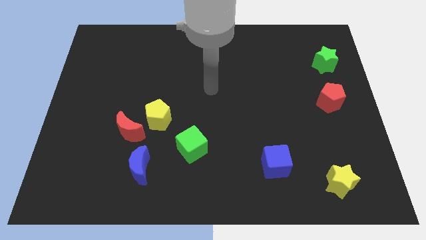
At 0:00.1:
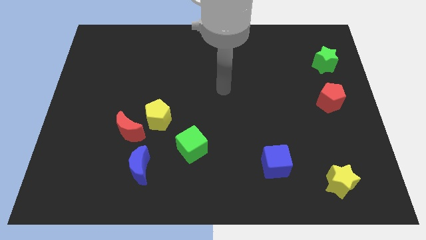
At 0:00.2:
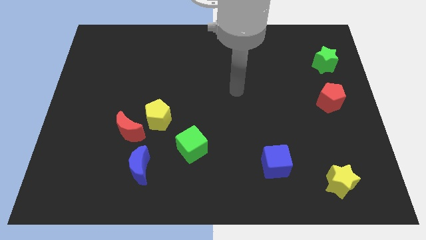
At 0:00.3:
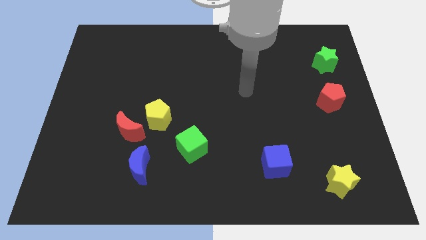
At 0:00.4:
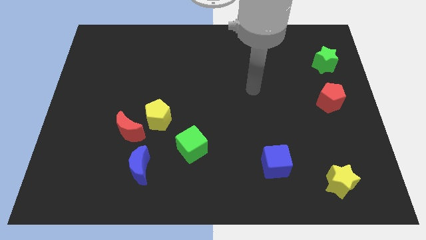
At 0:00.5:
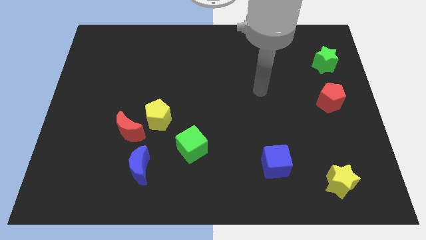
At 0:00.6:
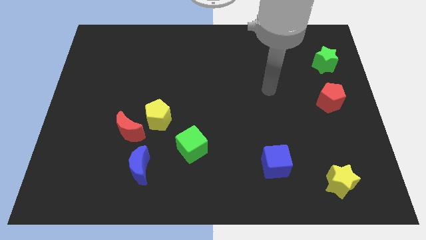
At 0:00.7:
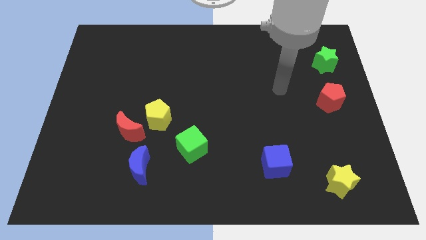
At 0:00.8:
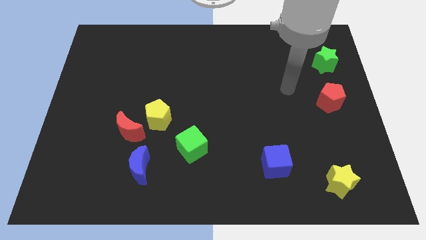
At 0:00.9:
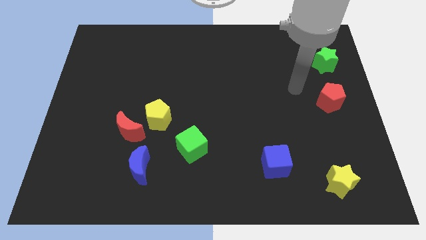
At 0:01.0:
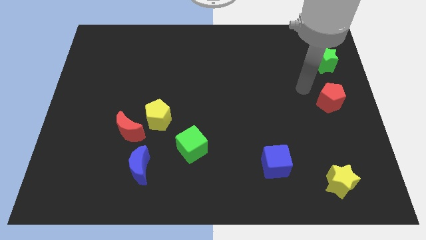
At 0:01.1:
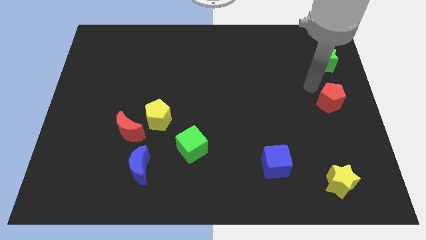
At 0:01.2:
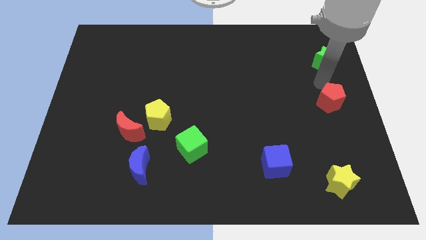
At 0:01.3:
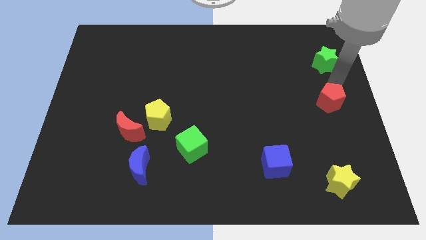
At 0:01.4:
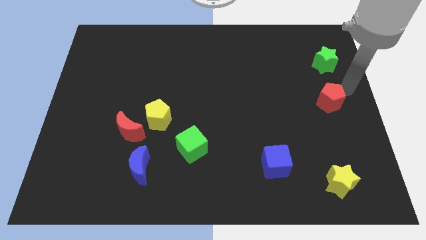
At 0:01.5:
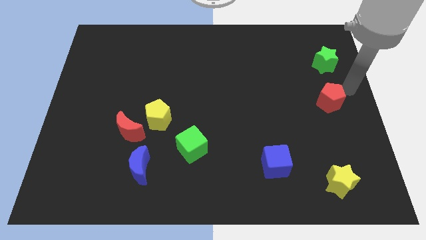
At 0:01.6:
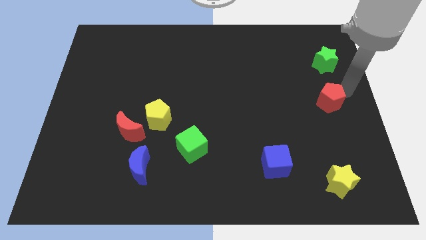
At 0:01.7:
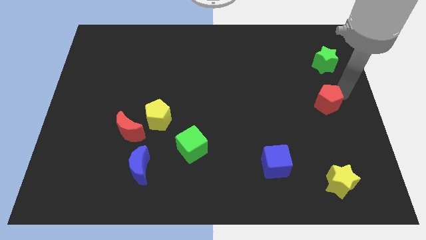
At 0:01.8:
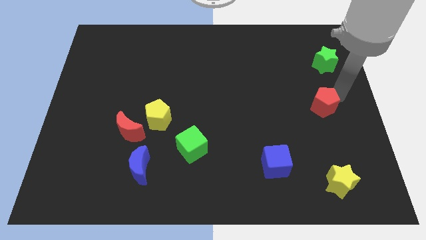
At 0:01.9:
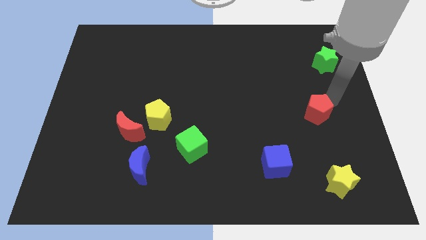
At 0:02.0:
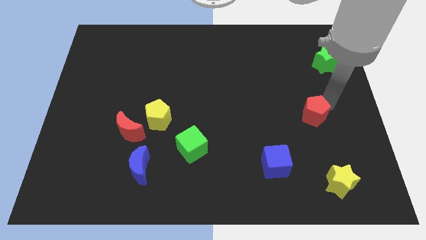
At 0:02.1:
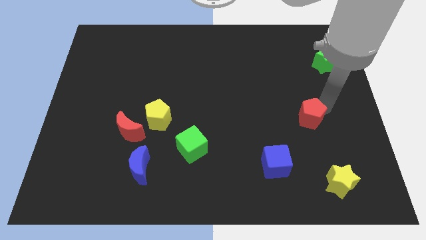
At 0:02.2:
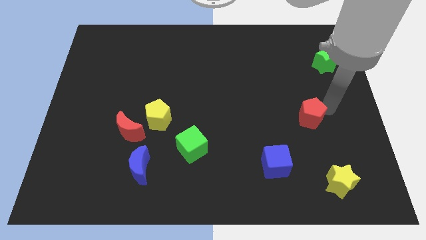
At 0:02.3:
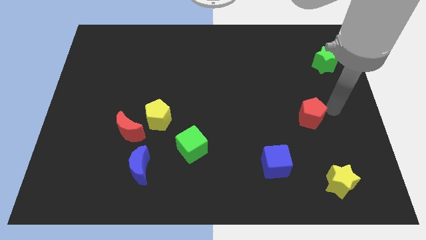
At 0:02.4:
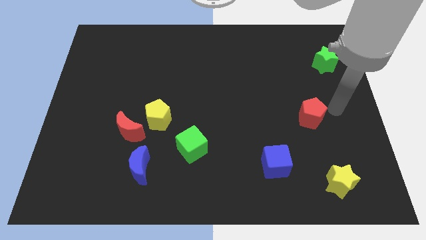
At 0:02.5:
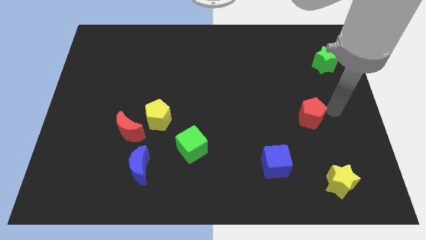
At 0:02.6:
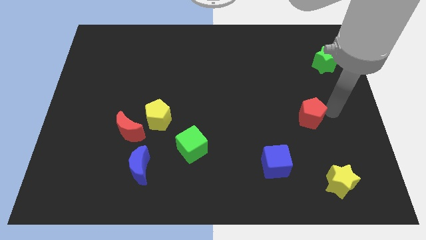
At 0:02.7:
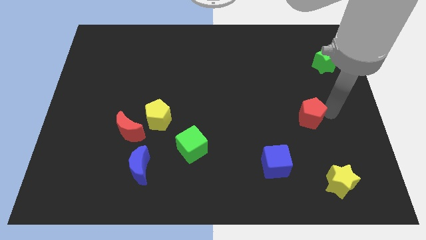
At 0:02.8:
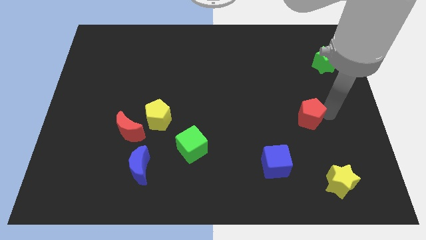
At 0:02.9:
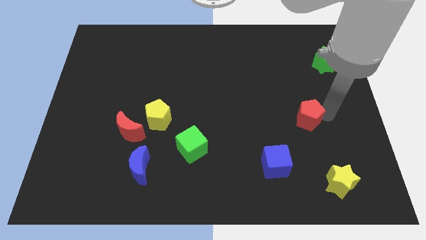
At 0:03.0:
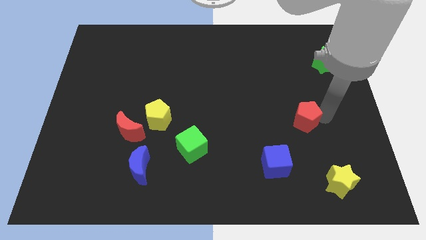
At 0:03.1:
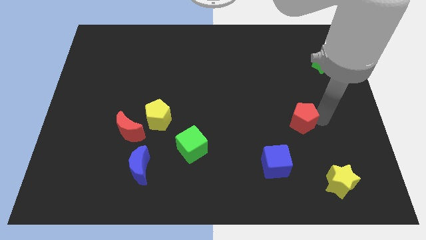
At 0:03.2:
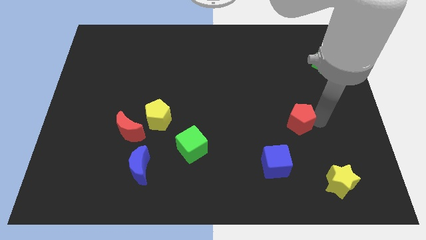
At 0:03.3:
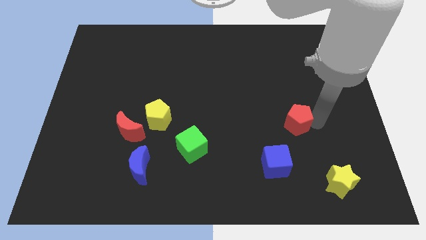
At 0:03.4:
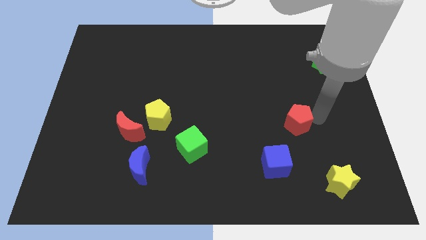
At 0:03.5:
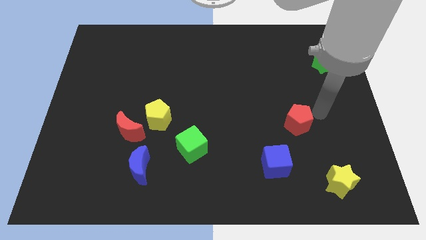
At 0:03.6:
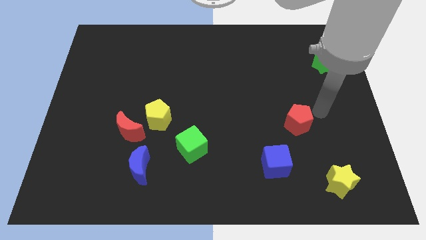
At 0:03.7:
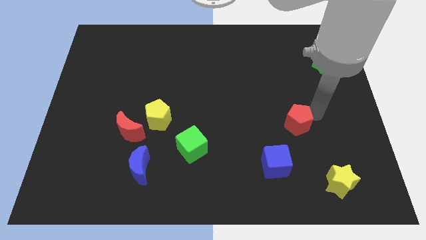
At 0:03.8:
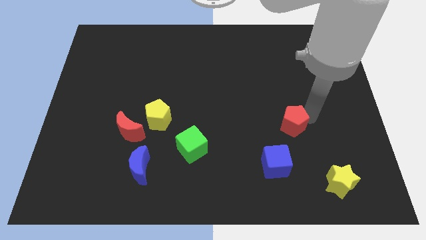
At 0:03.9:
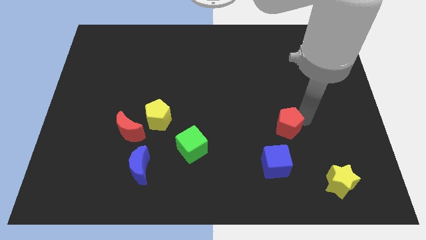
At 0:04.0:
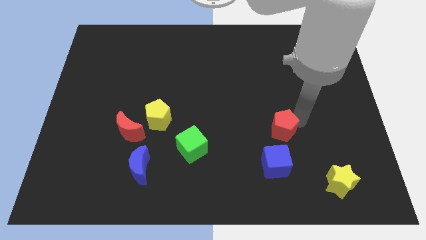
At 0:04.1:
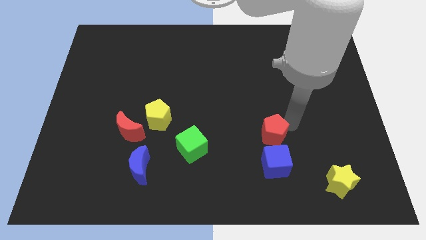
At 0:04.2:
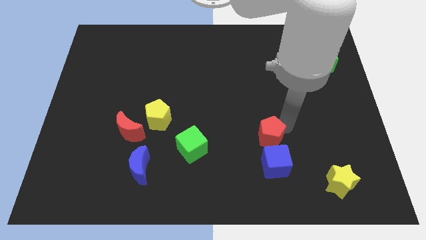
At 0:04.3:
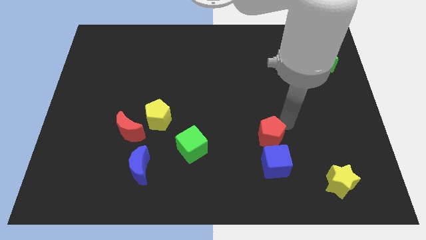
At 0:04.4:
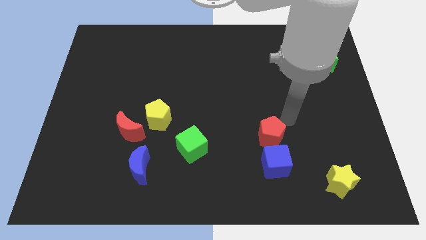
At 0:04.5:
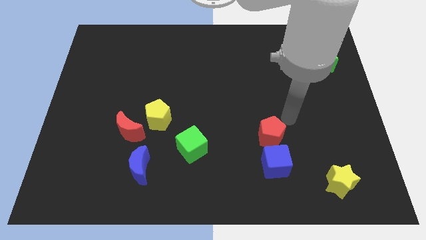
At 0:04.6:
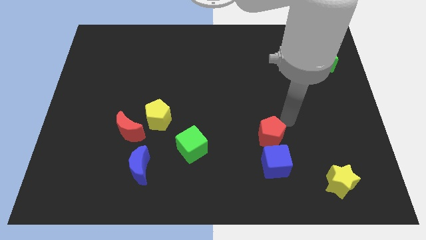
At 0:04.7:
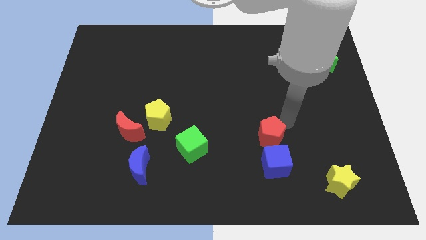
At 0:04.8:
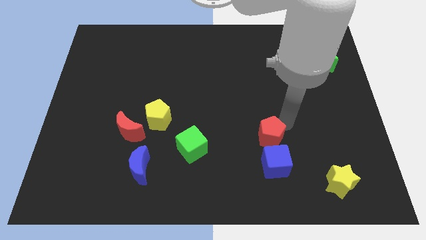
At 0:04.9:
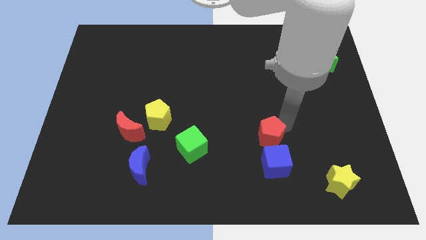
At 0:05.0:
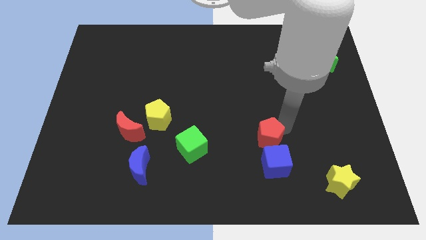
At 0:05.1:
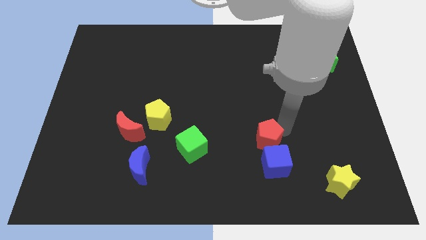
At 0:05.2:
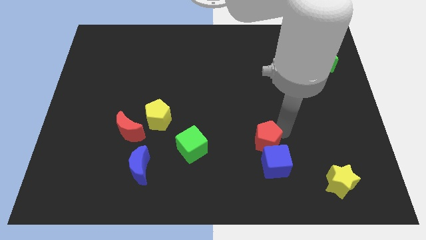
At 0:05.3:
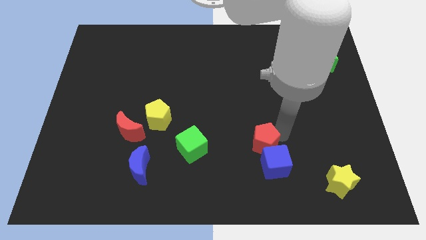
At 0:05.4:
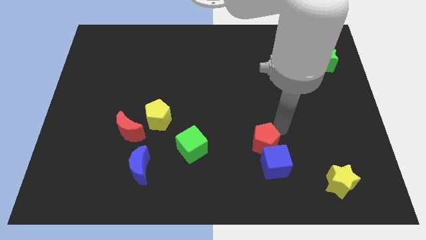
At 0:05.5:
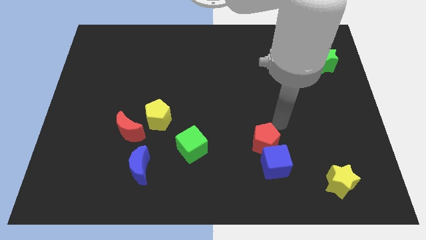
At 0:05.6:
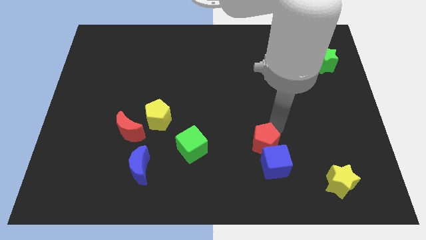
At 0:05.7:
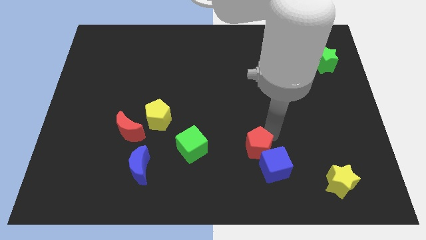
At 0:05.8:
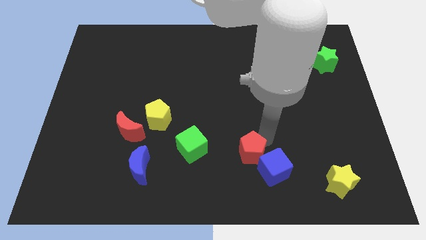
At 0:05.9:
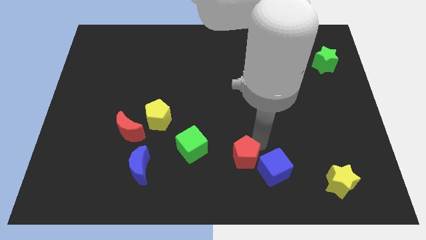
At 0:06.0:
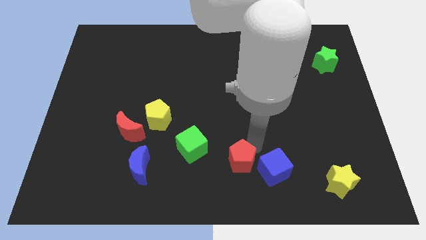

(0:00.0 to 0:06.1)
push the red pentagon to the bottom side
